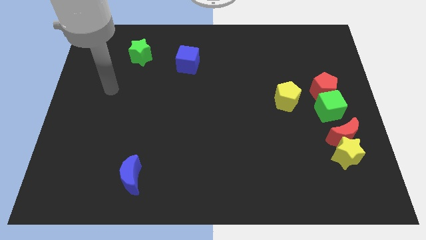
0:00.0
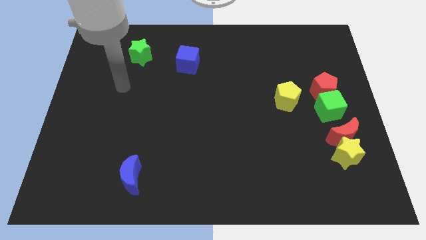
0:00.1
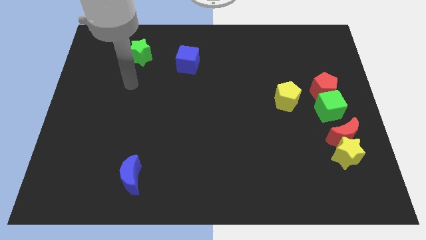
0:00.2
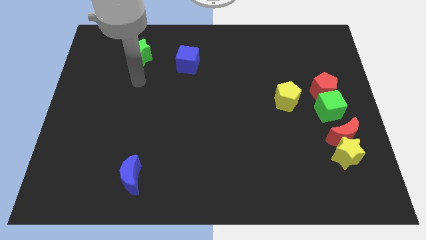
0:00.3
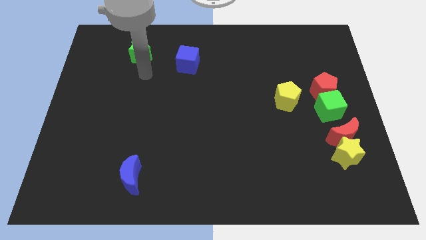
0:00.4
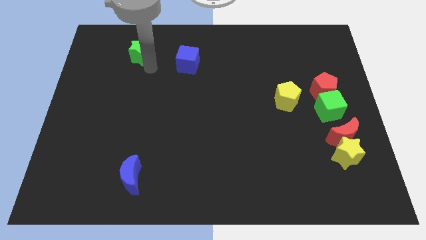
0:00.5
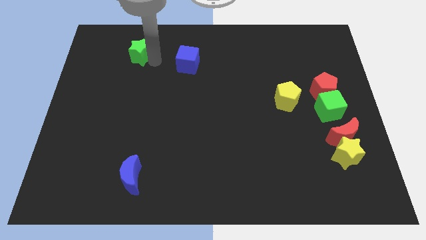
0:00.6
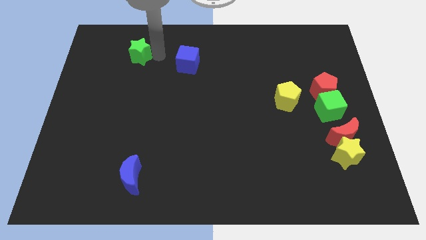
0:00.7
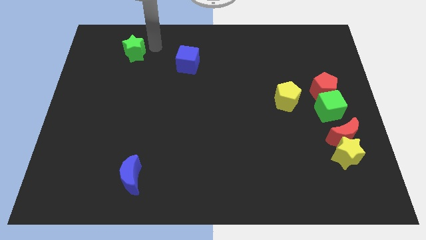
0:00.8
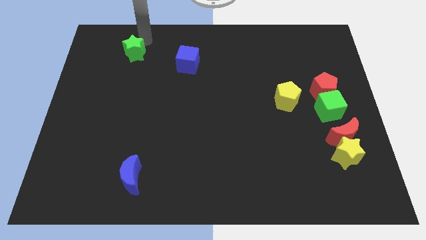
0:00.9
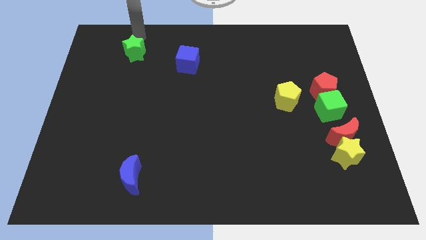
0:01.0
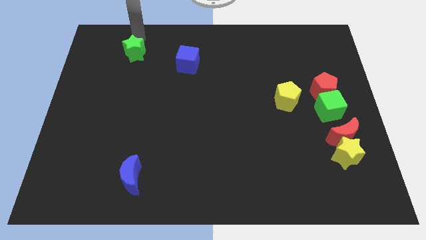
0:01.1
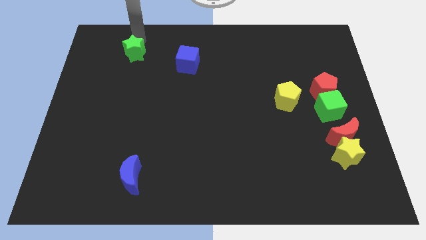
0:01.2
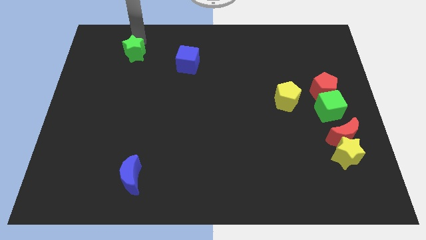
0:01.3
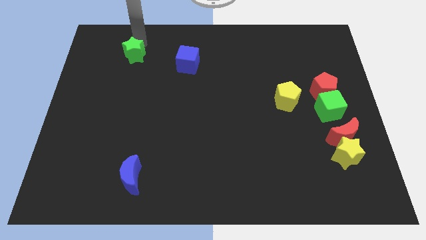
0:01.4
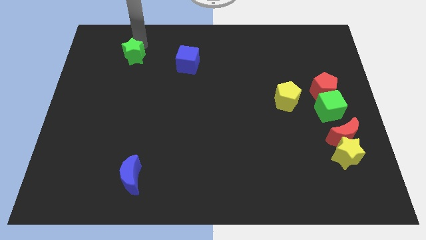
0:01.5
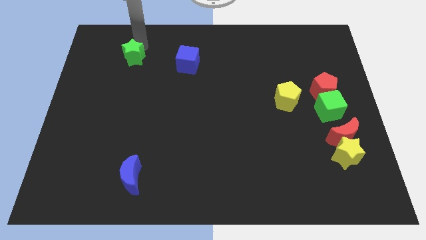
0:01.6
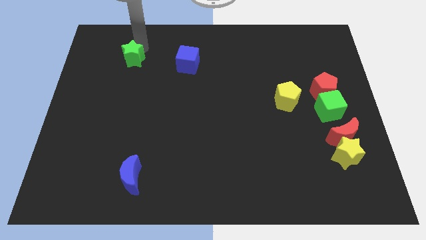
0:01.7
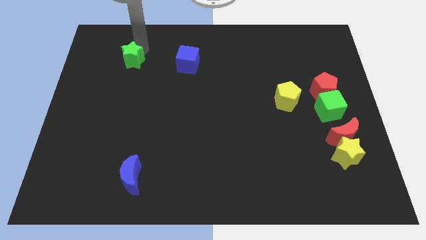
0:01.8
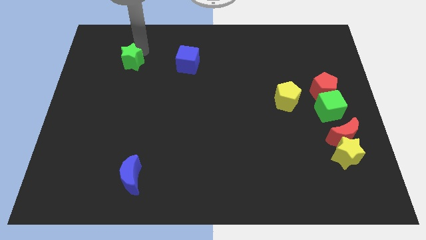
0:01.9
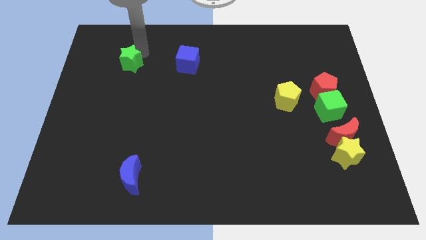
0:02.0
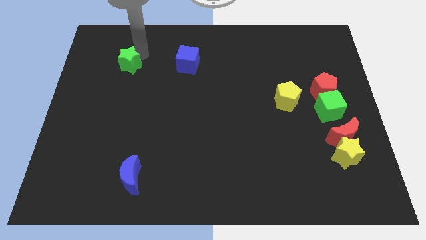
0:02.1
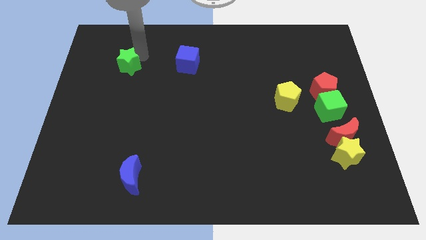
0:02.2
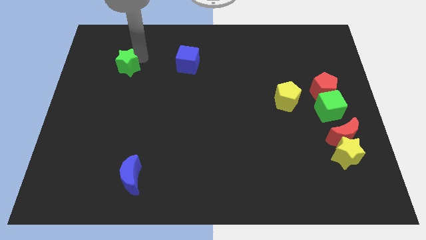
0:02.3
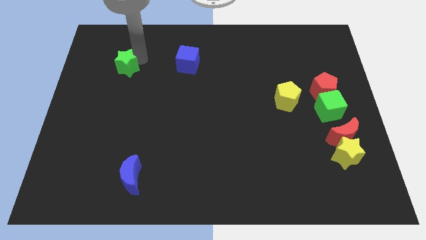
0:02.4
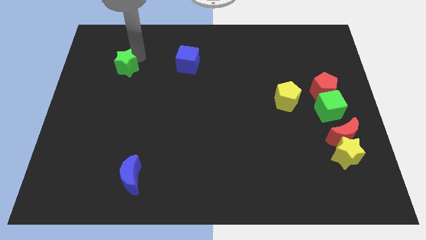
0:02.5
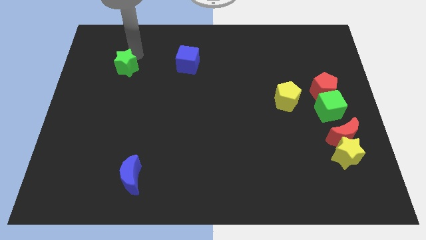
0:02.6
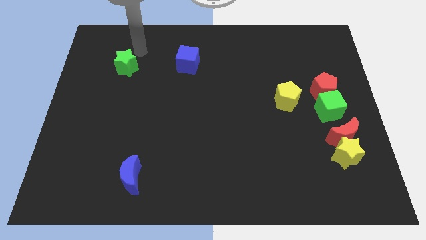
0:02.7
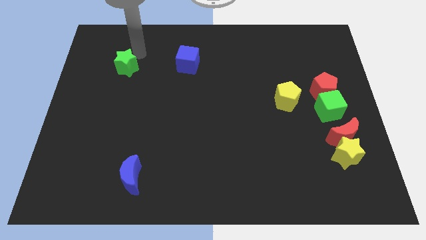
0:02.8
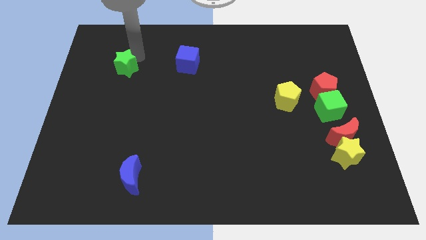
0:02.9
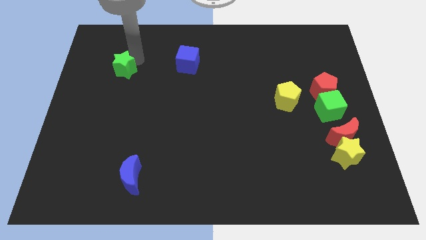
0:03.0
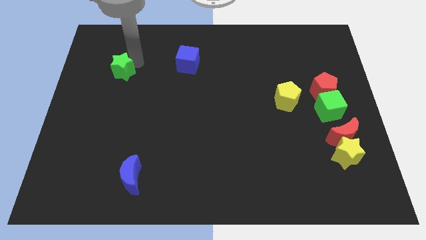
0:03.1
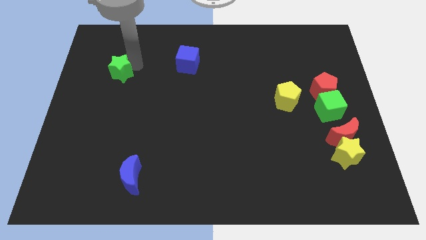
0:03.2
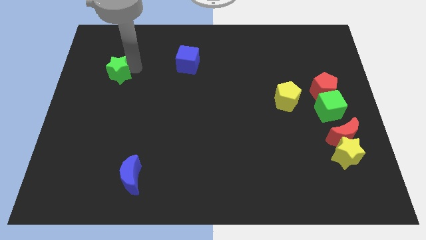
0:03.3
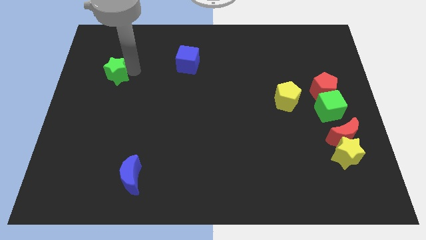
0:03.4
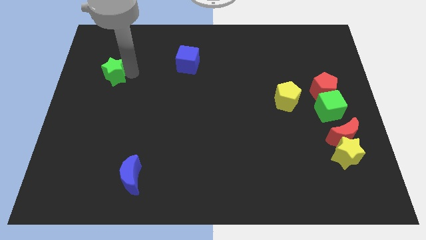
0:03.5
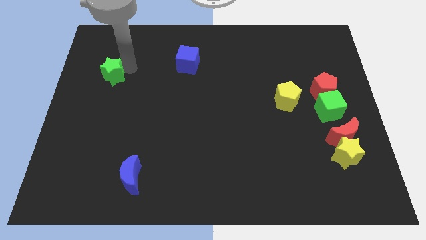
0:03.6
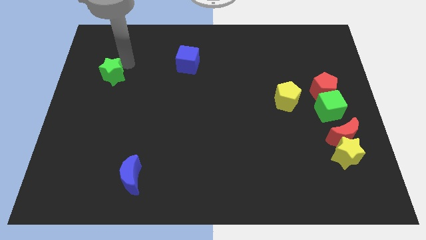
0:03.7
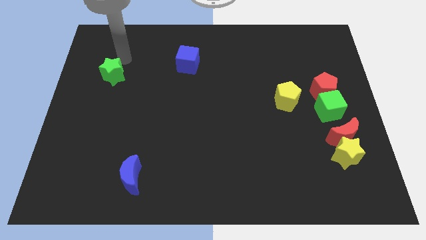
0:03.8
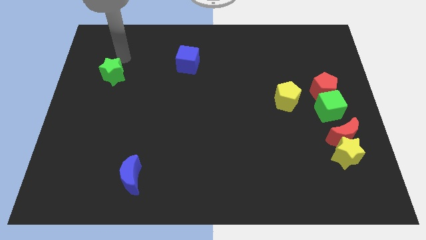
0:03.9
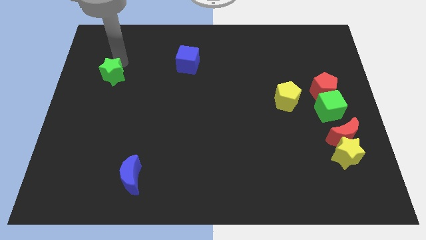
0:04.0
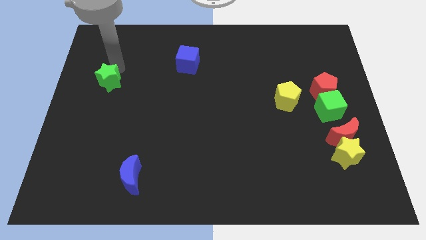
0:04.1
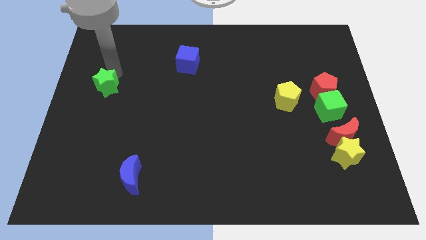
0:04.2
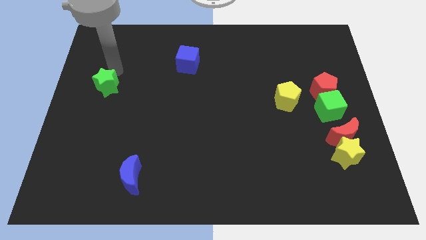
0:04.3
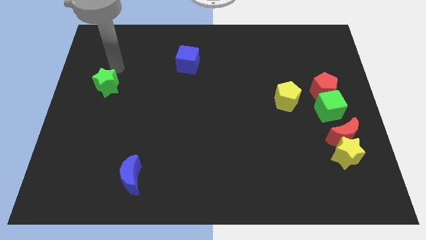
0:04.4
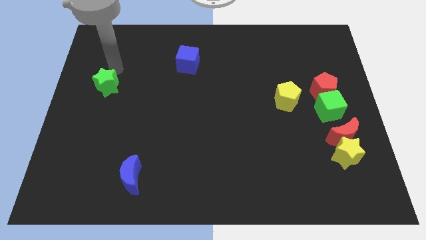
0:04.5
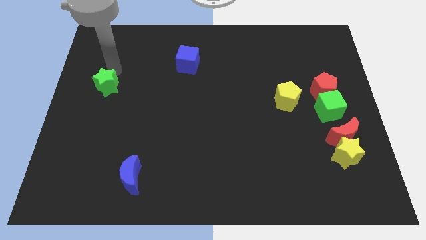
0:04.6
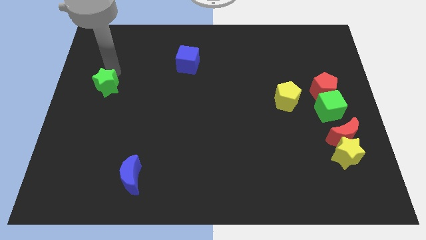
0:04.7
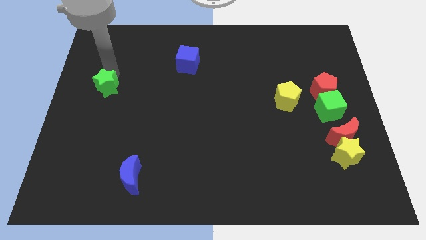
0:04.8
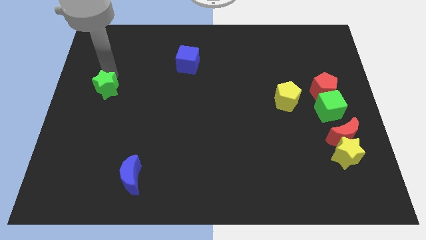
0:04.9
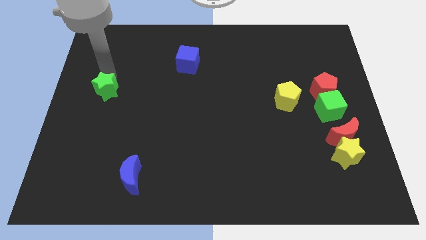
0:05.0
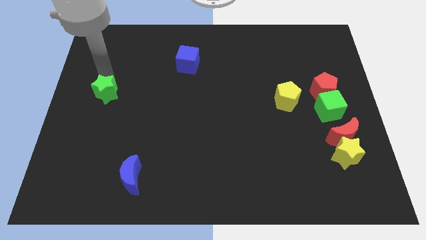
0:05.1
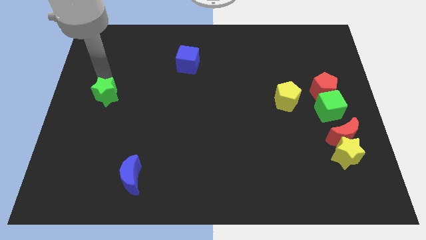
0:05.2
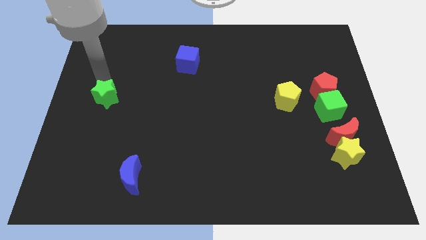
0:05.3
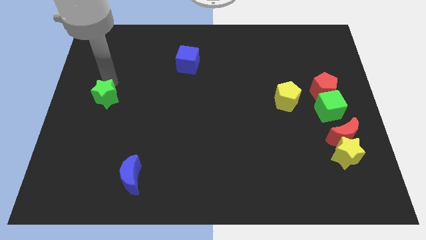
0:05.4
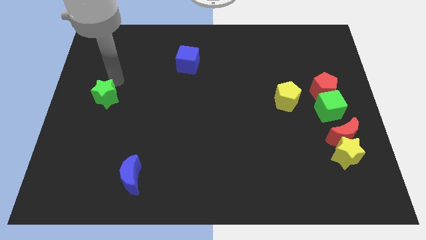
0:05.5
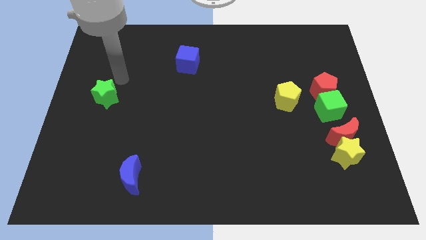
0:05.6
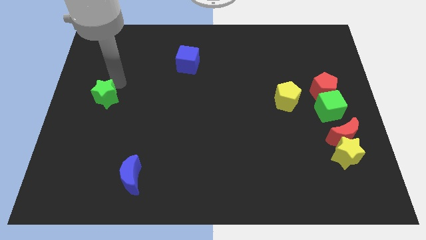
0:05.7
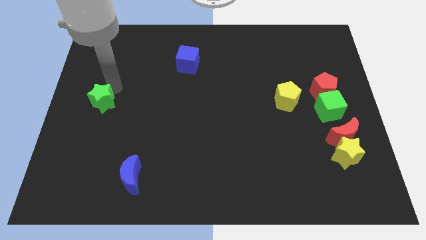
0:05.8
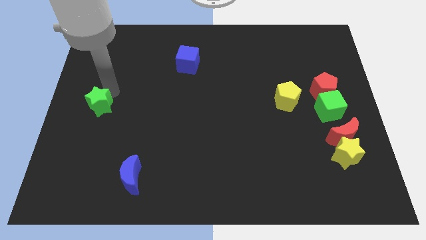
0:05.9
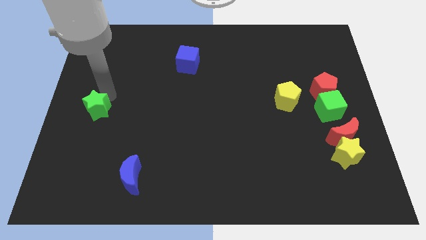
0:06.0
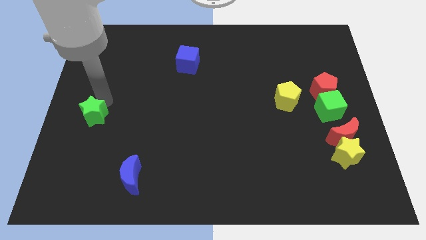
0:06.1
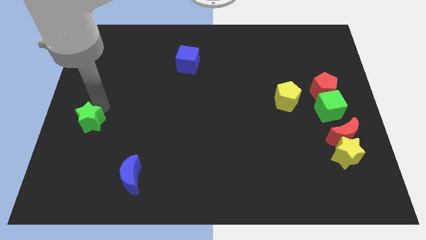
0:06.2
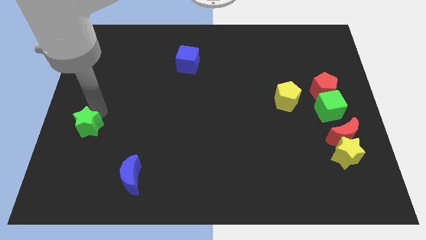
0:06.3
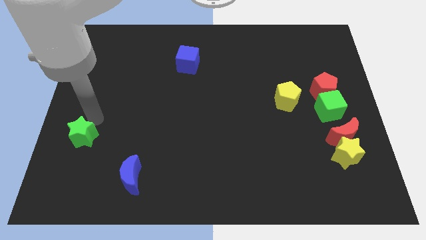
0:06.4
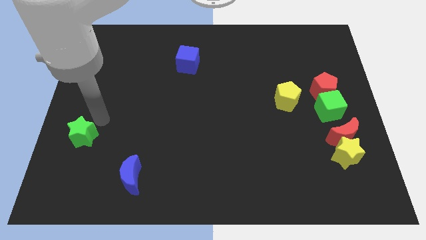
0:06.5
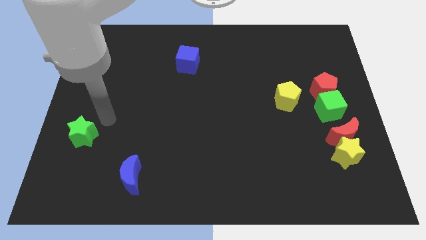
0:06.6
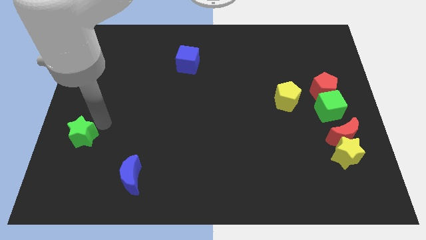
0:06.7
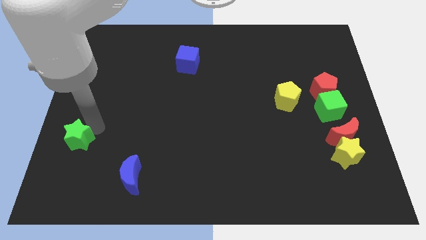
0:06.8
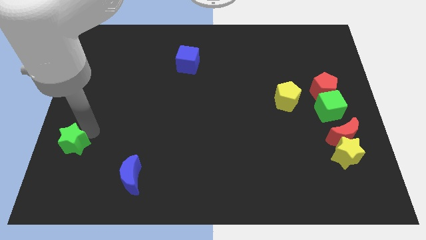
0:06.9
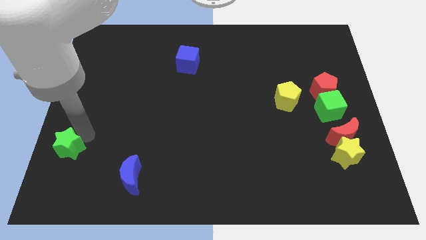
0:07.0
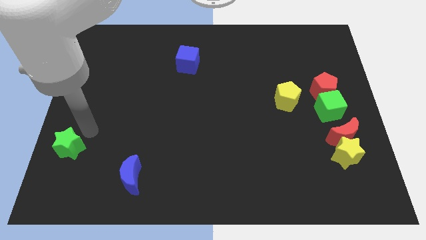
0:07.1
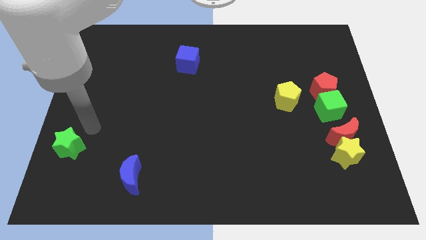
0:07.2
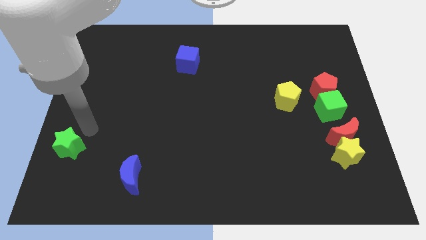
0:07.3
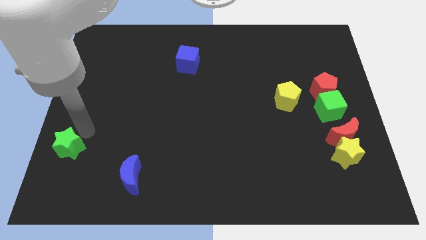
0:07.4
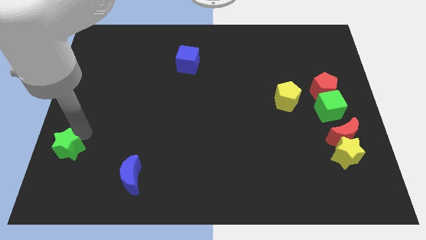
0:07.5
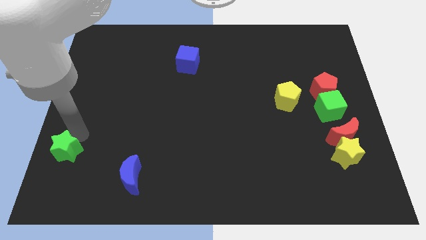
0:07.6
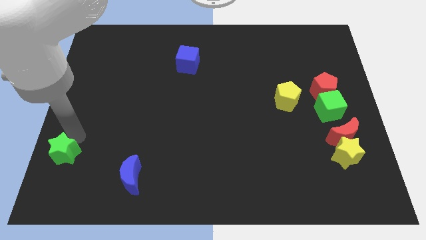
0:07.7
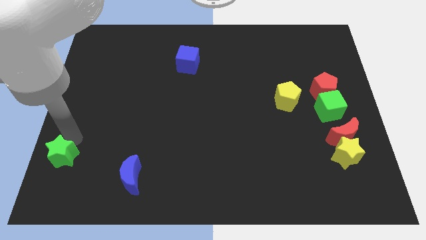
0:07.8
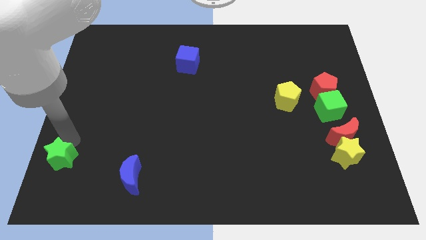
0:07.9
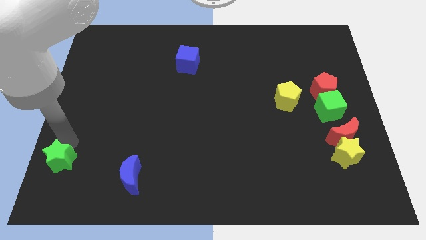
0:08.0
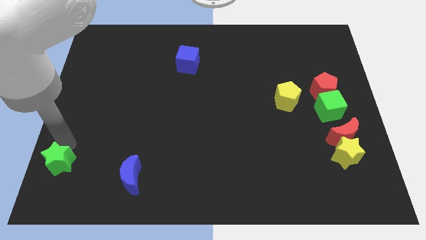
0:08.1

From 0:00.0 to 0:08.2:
slide the green star to the bottom left
